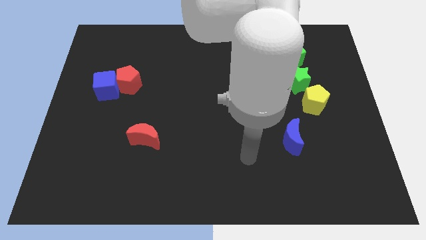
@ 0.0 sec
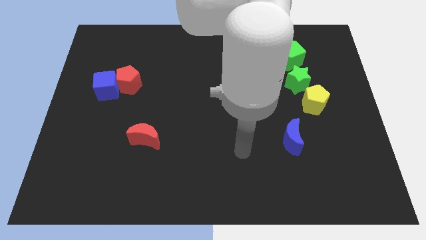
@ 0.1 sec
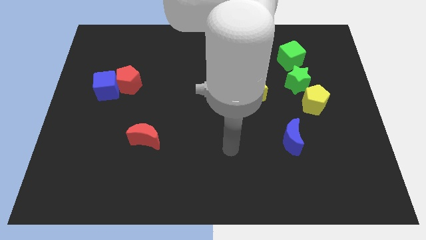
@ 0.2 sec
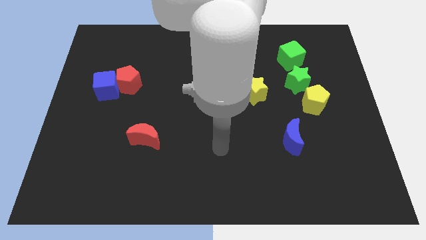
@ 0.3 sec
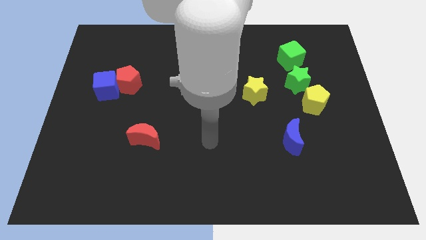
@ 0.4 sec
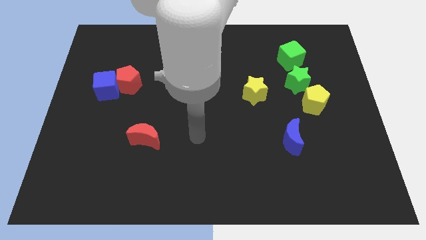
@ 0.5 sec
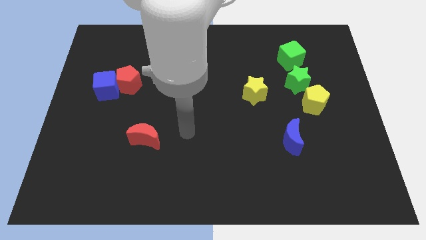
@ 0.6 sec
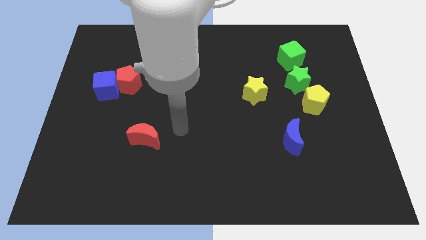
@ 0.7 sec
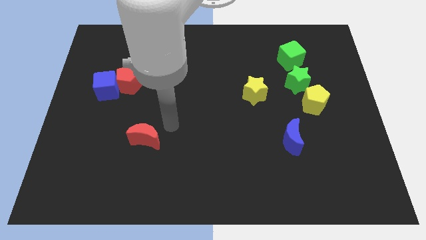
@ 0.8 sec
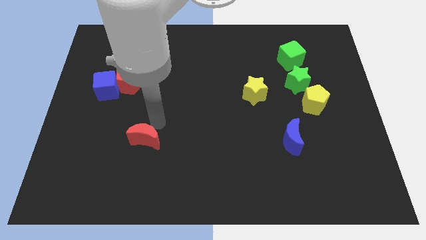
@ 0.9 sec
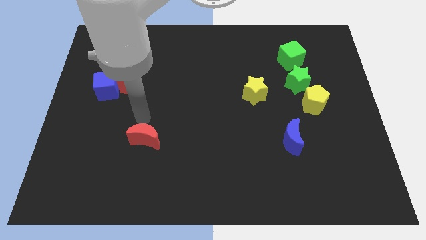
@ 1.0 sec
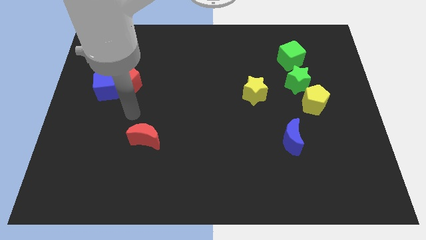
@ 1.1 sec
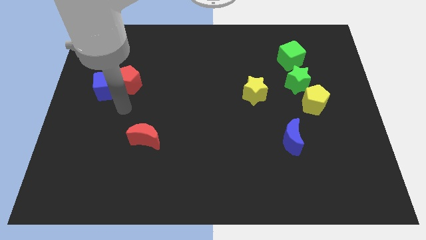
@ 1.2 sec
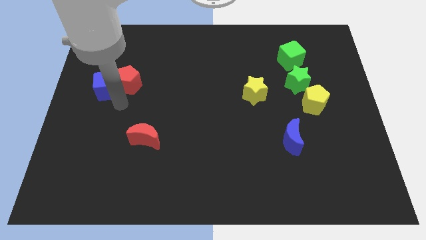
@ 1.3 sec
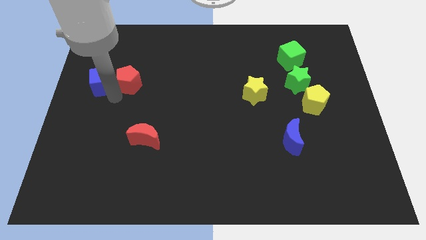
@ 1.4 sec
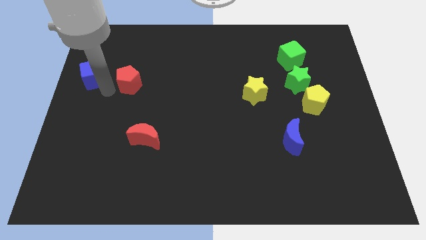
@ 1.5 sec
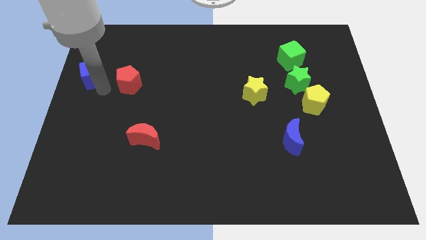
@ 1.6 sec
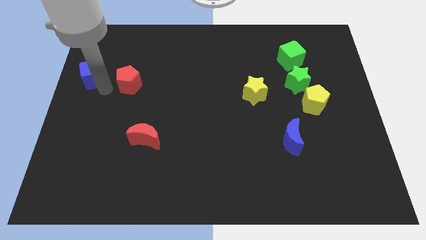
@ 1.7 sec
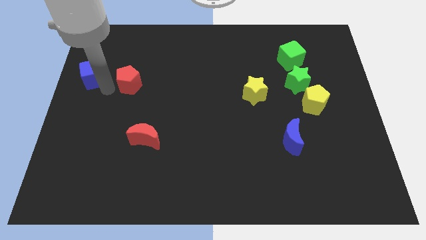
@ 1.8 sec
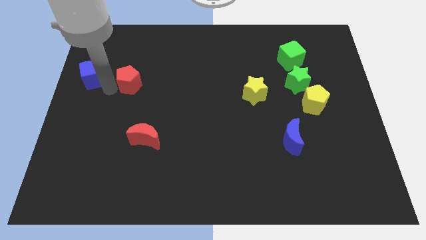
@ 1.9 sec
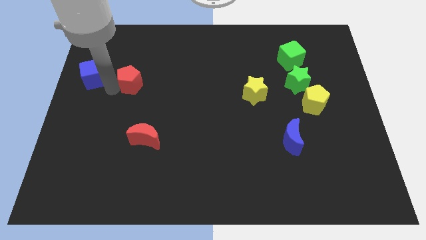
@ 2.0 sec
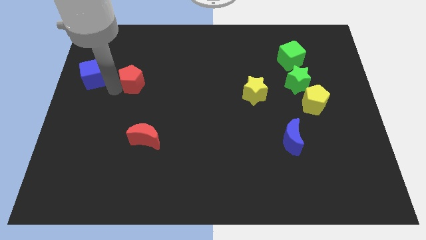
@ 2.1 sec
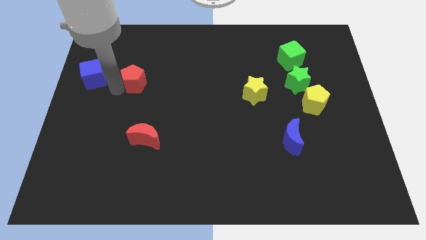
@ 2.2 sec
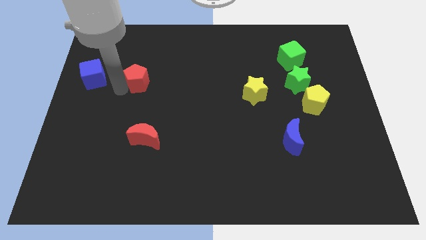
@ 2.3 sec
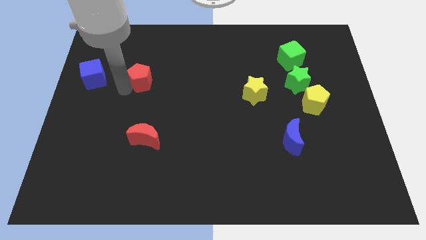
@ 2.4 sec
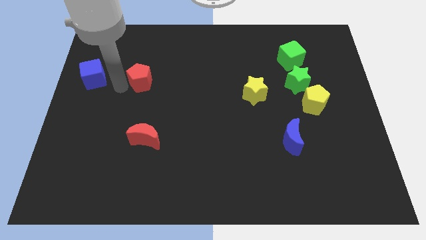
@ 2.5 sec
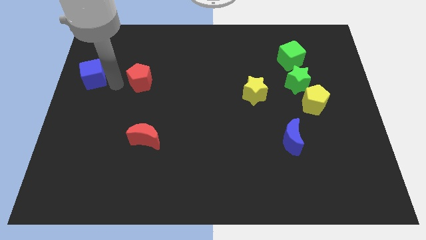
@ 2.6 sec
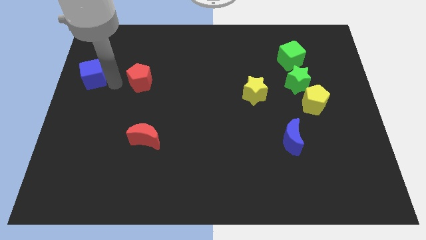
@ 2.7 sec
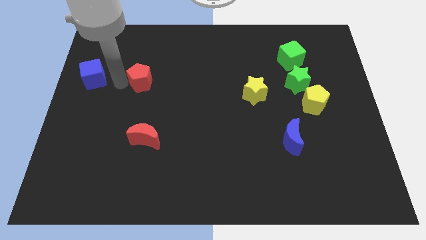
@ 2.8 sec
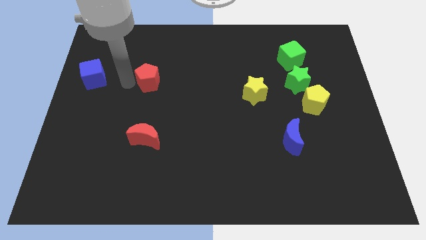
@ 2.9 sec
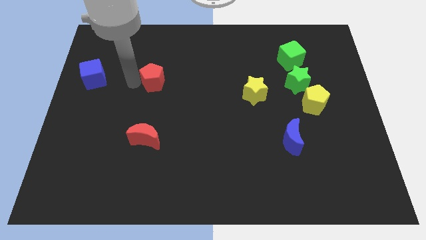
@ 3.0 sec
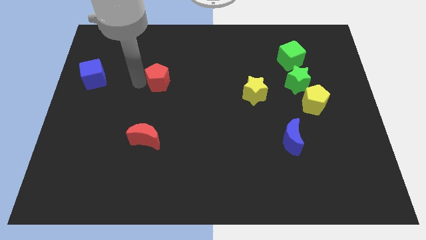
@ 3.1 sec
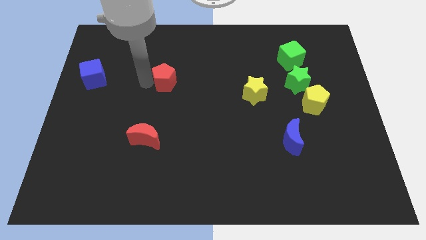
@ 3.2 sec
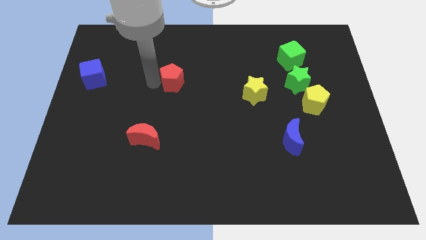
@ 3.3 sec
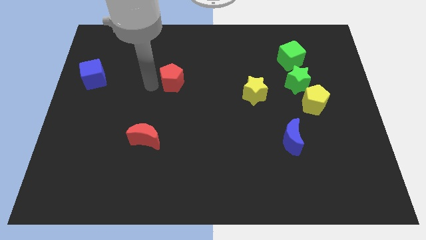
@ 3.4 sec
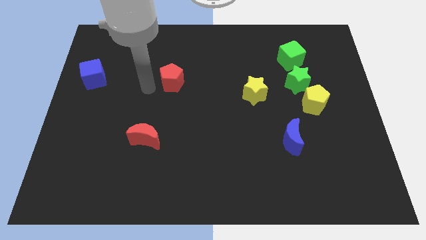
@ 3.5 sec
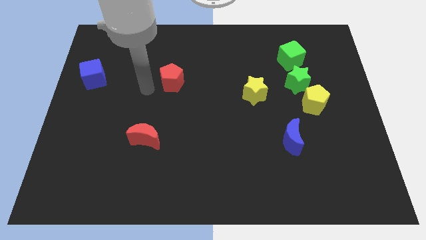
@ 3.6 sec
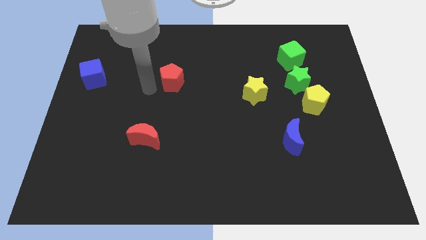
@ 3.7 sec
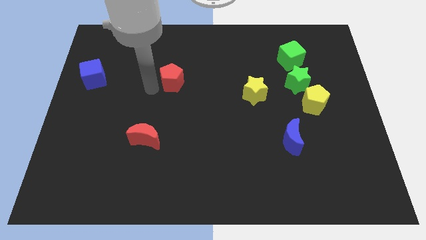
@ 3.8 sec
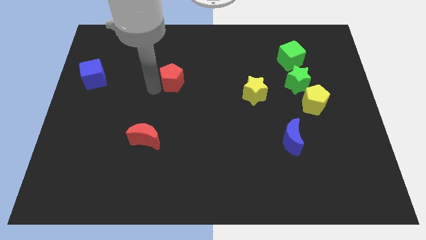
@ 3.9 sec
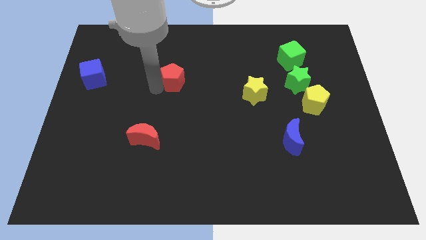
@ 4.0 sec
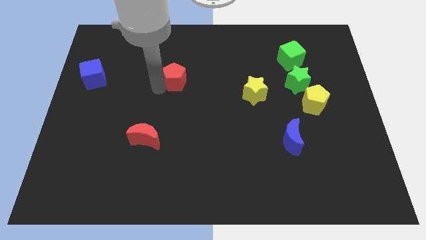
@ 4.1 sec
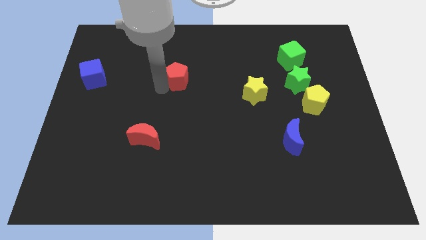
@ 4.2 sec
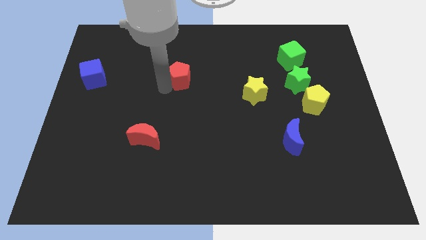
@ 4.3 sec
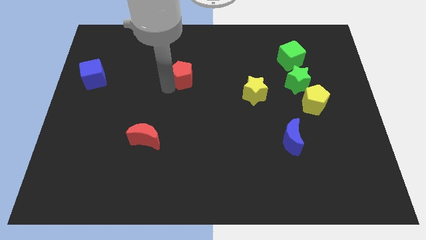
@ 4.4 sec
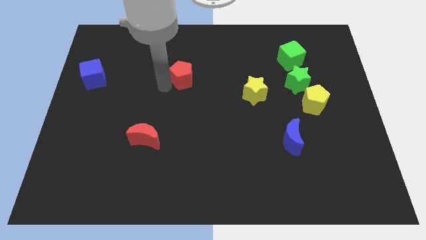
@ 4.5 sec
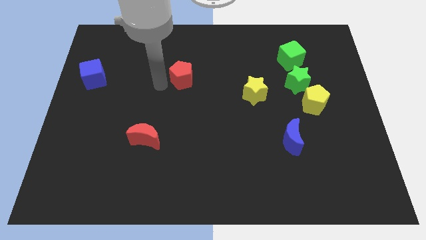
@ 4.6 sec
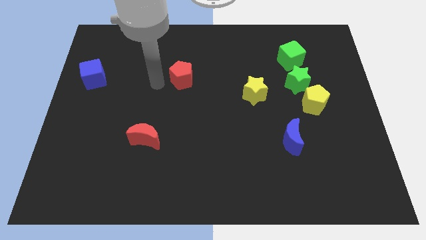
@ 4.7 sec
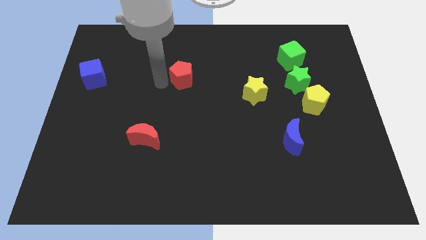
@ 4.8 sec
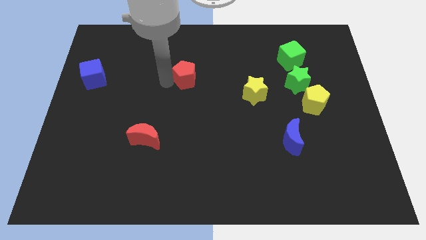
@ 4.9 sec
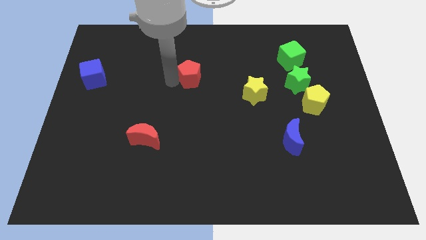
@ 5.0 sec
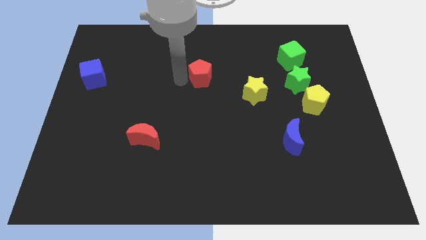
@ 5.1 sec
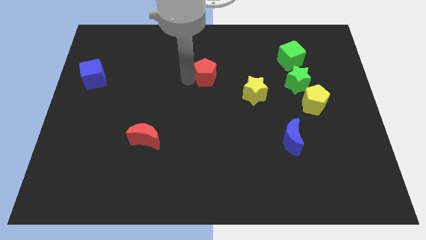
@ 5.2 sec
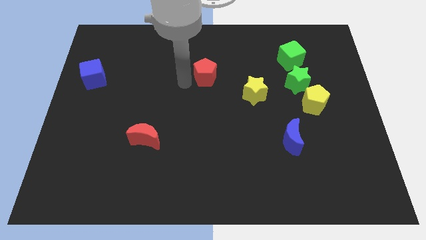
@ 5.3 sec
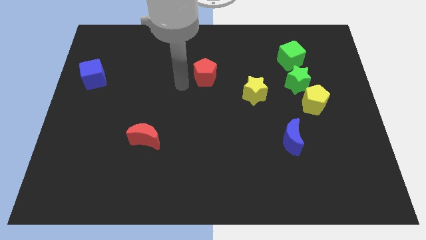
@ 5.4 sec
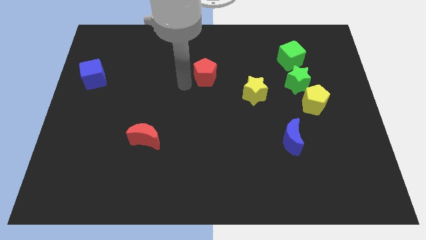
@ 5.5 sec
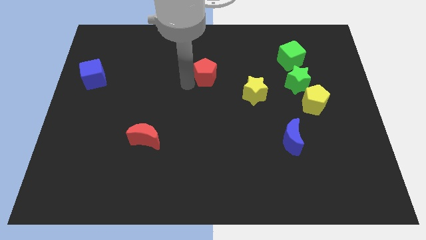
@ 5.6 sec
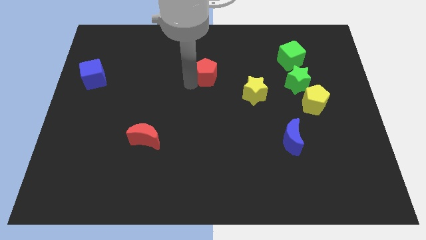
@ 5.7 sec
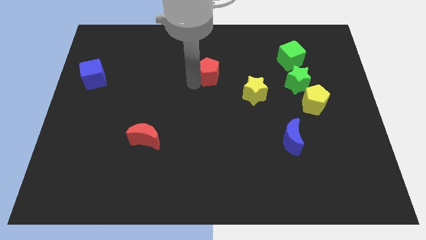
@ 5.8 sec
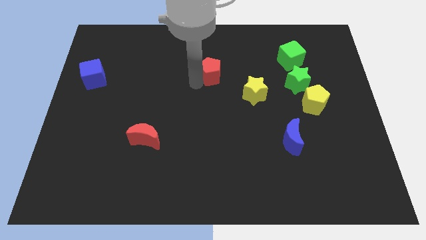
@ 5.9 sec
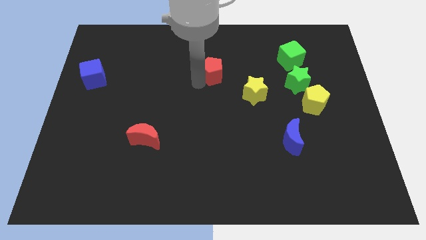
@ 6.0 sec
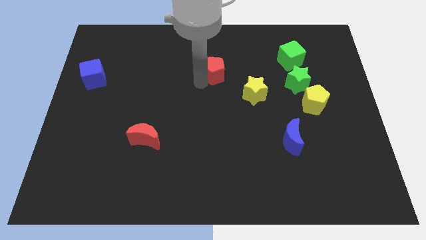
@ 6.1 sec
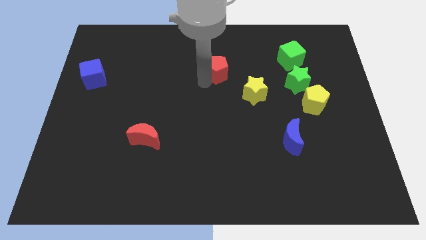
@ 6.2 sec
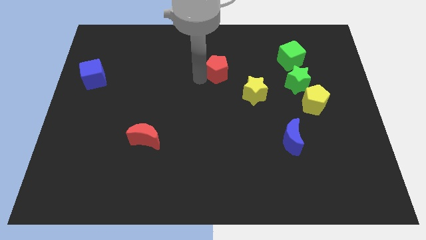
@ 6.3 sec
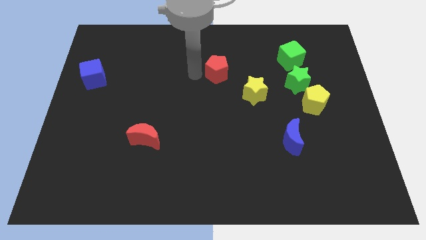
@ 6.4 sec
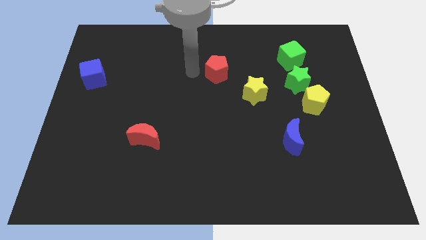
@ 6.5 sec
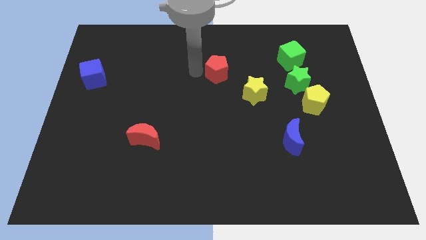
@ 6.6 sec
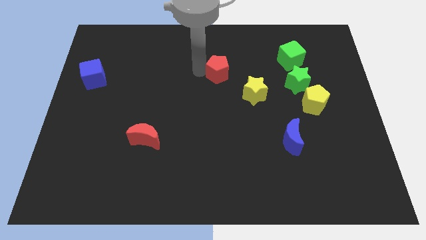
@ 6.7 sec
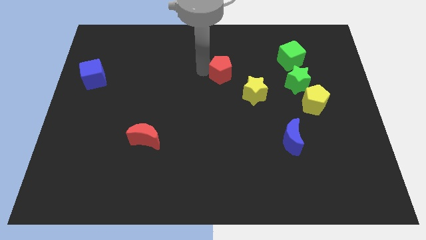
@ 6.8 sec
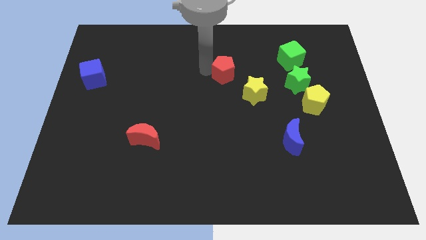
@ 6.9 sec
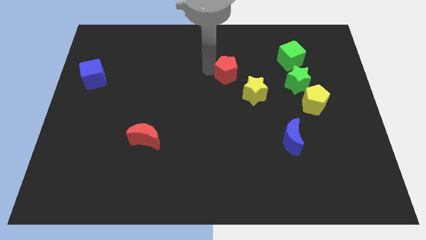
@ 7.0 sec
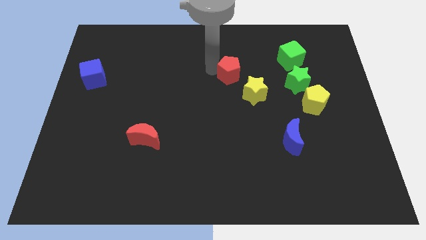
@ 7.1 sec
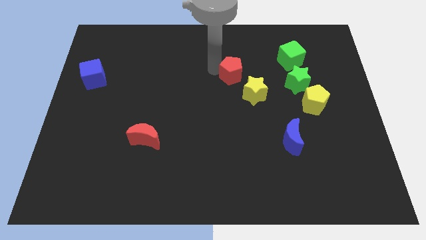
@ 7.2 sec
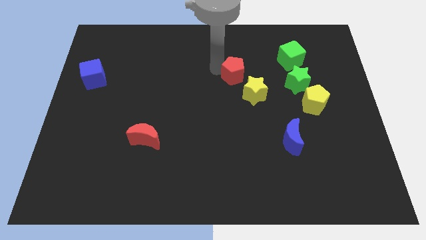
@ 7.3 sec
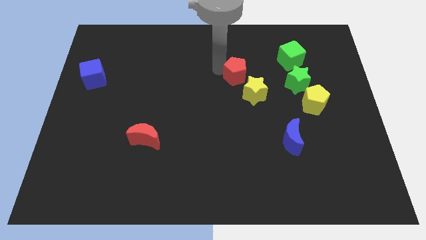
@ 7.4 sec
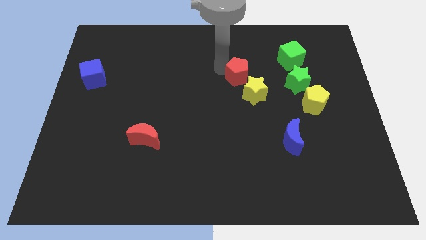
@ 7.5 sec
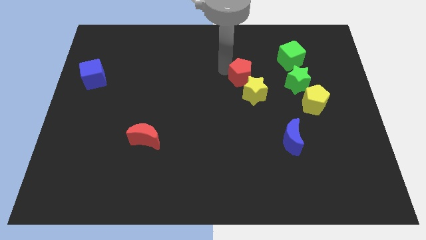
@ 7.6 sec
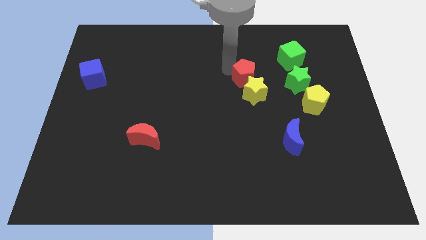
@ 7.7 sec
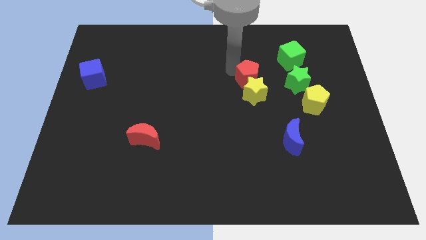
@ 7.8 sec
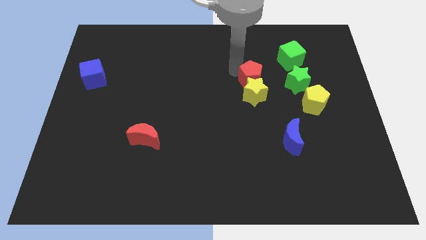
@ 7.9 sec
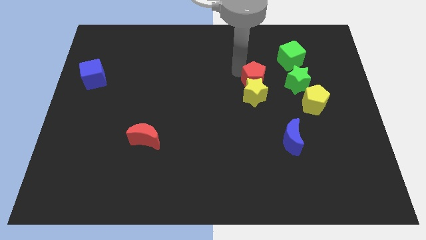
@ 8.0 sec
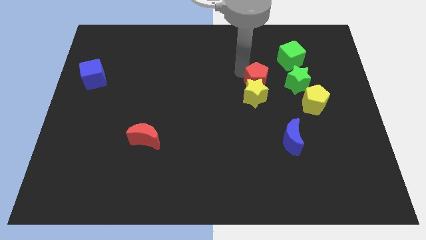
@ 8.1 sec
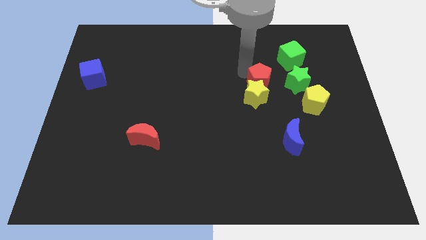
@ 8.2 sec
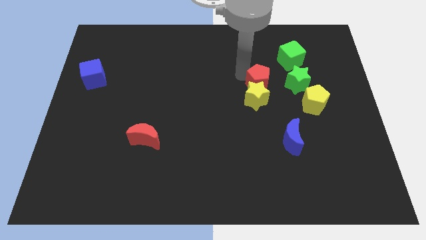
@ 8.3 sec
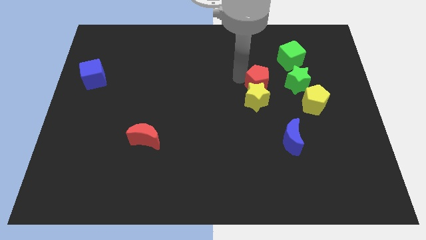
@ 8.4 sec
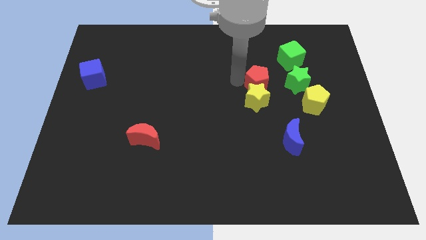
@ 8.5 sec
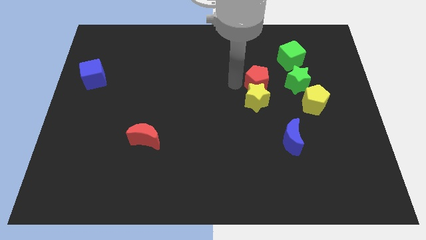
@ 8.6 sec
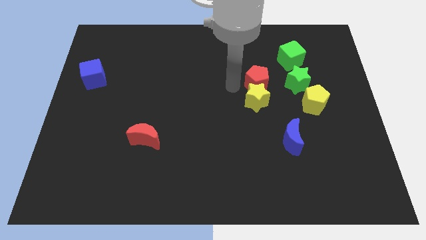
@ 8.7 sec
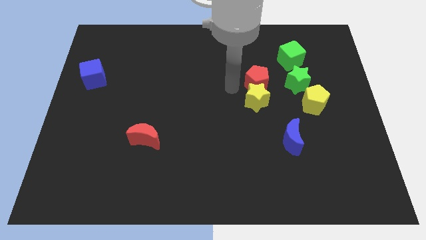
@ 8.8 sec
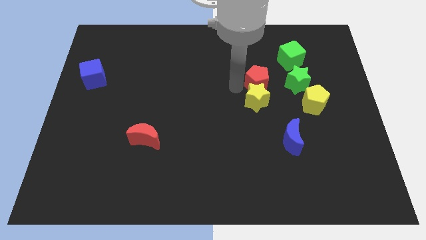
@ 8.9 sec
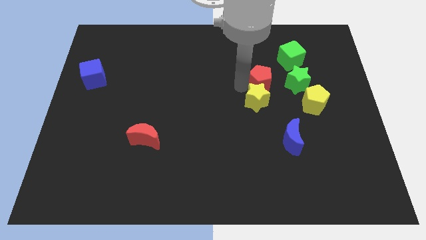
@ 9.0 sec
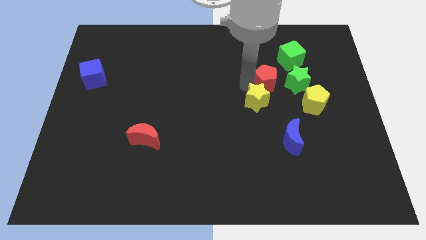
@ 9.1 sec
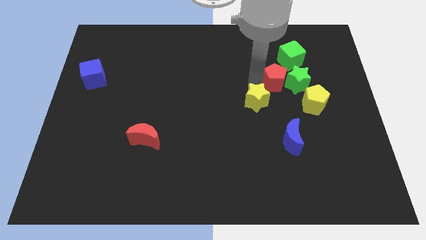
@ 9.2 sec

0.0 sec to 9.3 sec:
move the red pentagon to the green star
